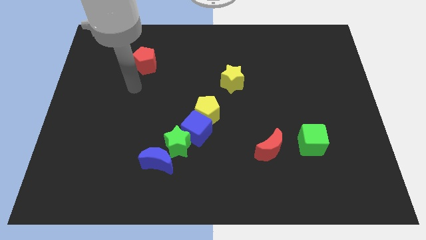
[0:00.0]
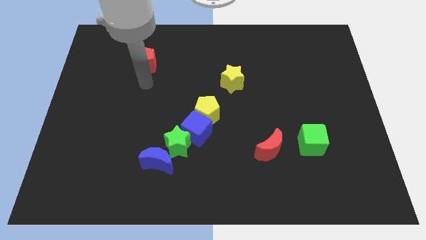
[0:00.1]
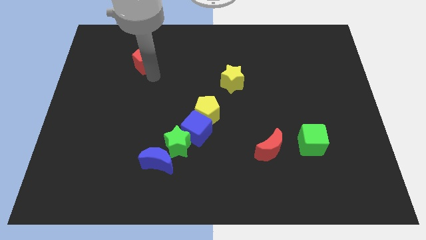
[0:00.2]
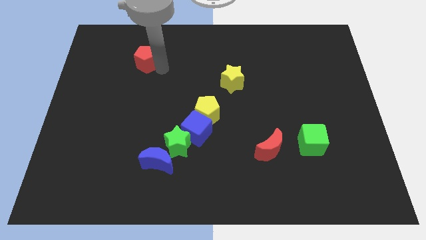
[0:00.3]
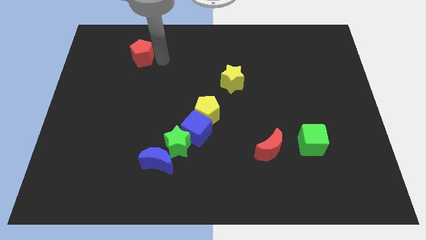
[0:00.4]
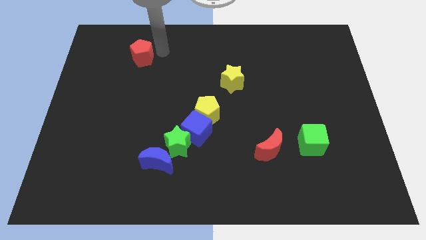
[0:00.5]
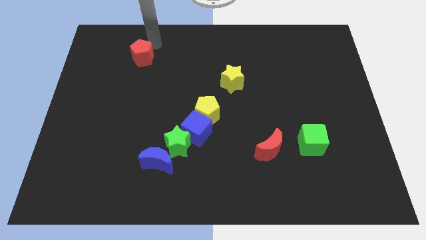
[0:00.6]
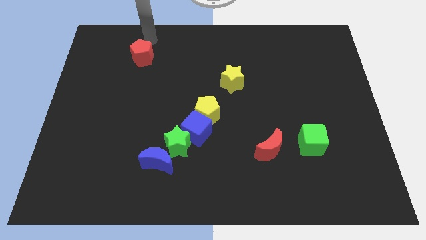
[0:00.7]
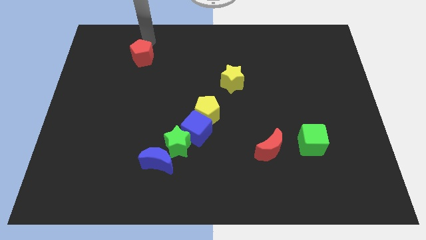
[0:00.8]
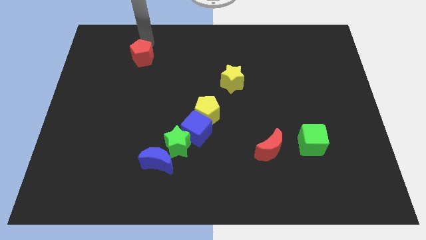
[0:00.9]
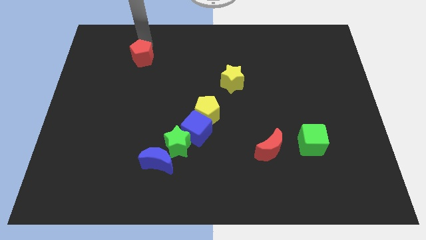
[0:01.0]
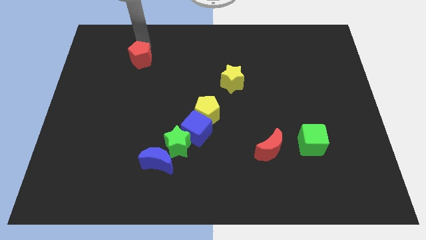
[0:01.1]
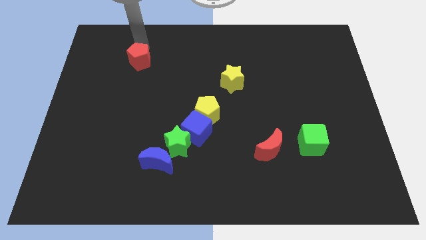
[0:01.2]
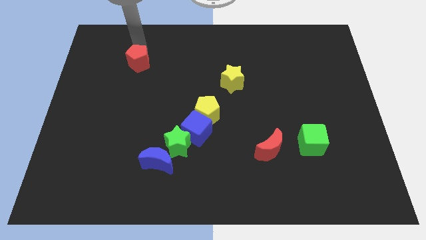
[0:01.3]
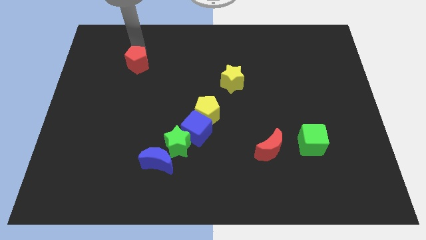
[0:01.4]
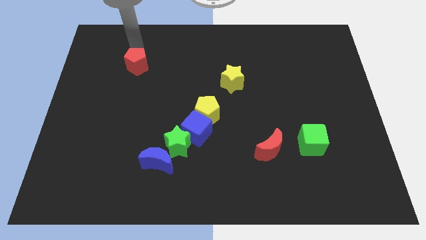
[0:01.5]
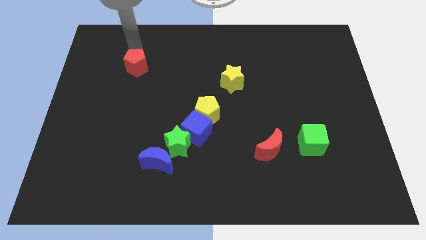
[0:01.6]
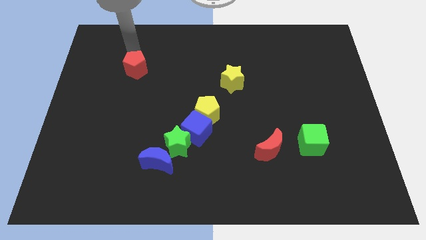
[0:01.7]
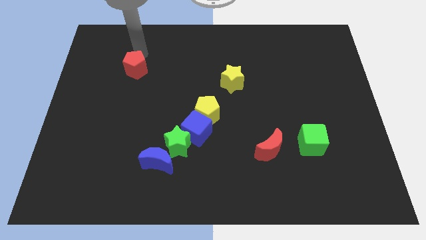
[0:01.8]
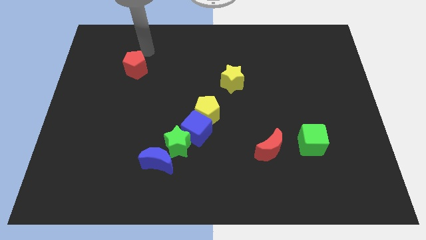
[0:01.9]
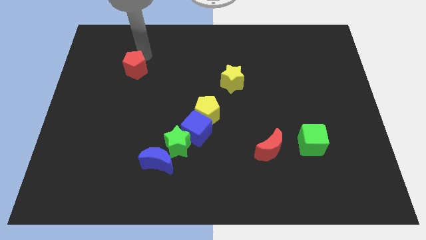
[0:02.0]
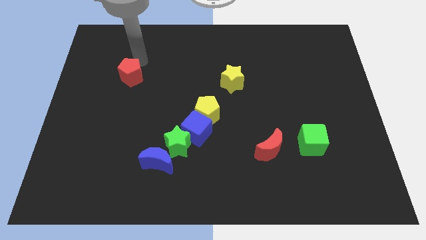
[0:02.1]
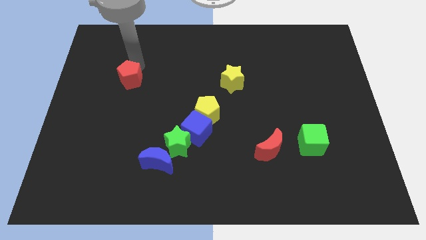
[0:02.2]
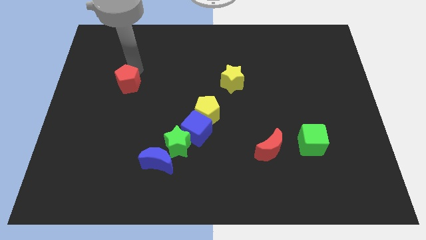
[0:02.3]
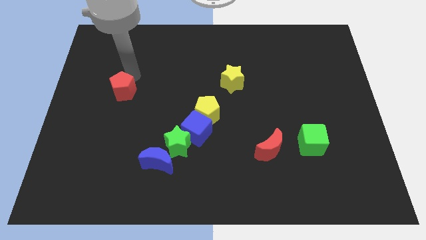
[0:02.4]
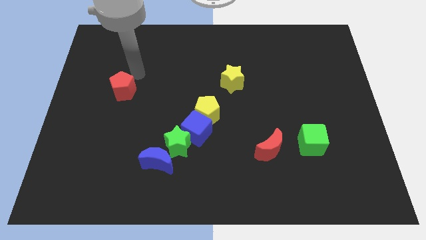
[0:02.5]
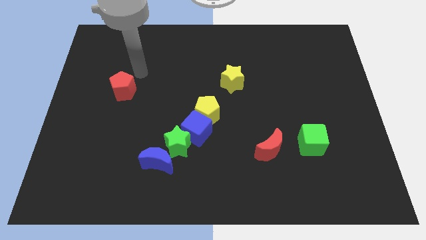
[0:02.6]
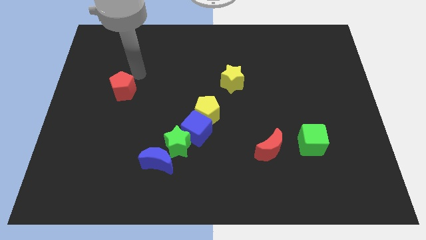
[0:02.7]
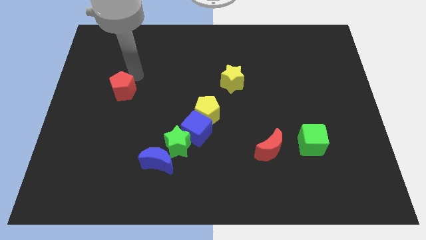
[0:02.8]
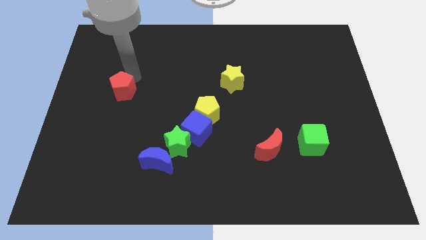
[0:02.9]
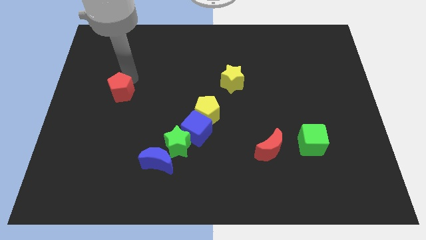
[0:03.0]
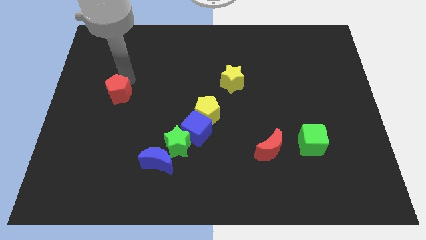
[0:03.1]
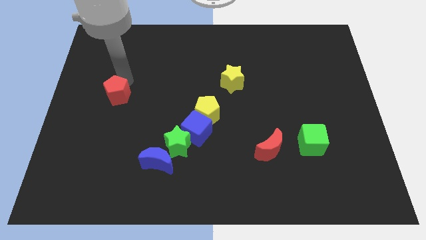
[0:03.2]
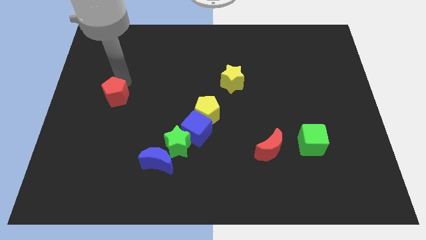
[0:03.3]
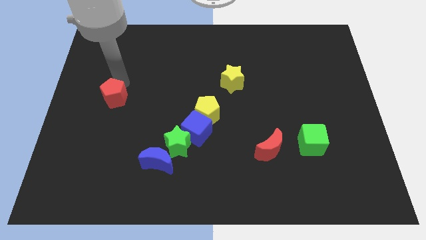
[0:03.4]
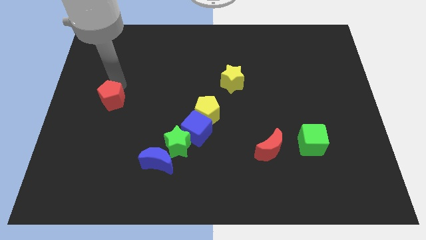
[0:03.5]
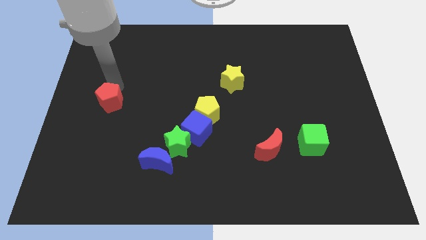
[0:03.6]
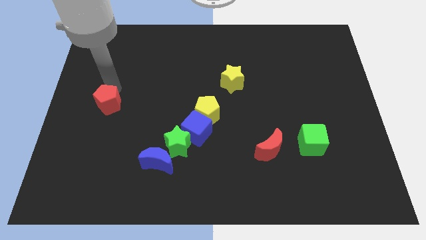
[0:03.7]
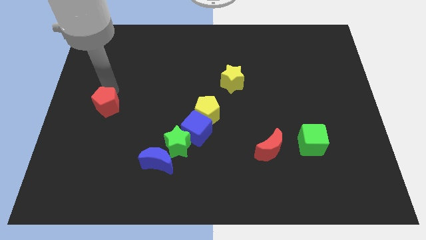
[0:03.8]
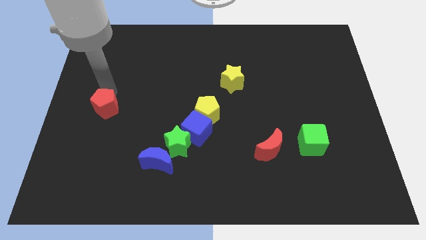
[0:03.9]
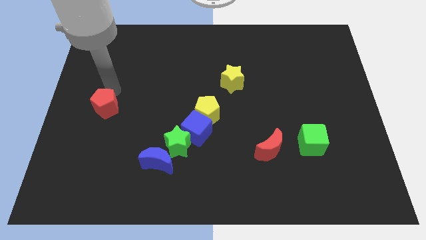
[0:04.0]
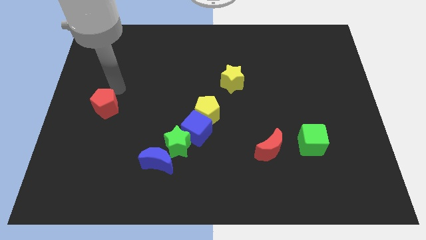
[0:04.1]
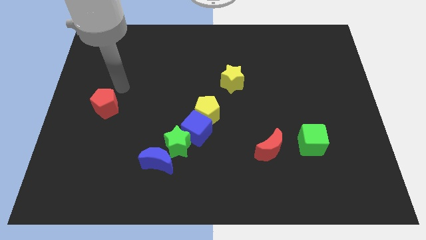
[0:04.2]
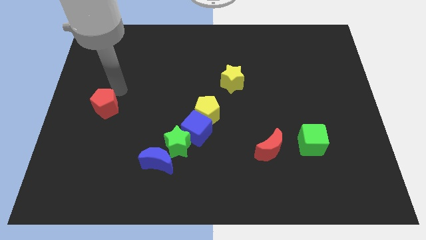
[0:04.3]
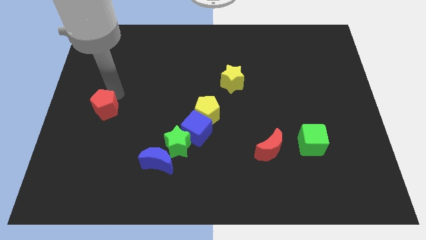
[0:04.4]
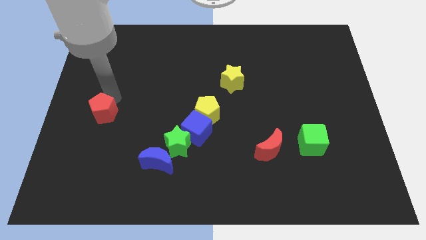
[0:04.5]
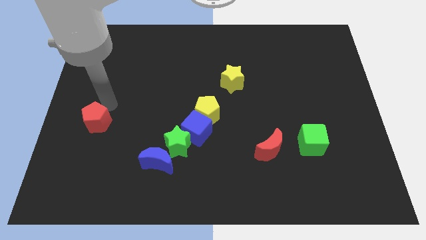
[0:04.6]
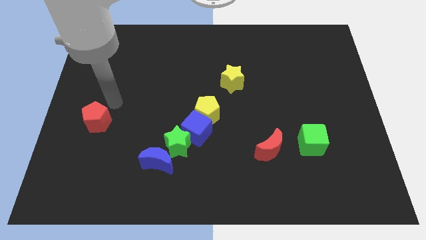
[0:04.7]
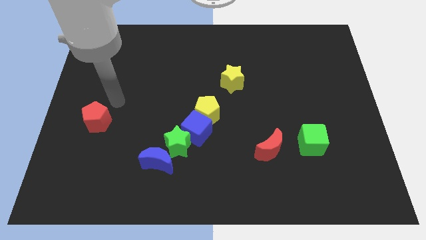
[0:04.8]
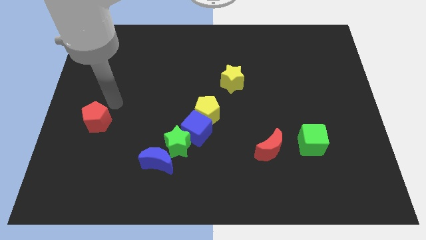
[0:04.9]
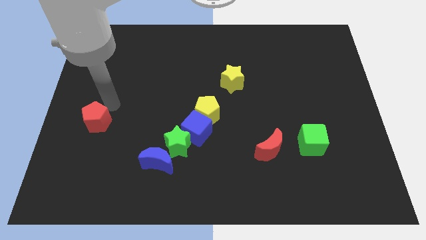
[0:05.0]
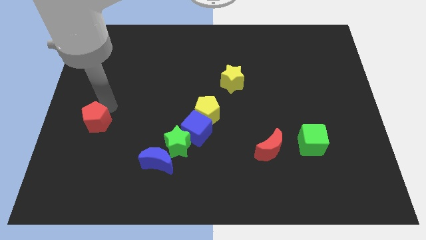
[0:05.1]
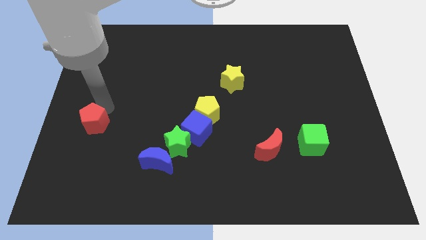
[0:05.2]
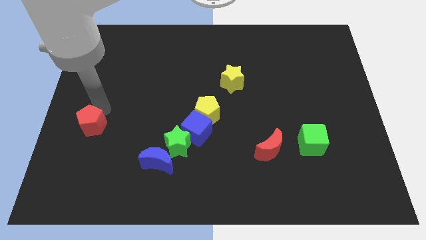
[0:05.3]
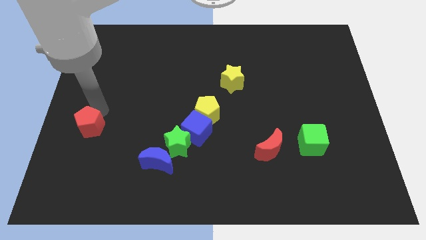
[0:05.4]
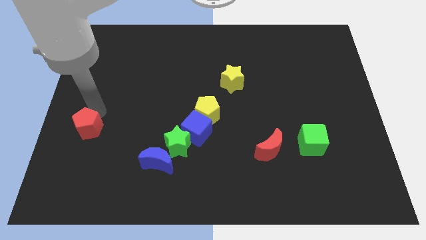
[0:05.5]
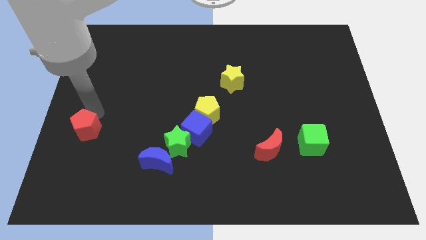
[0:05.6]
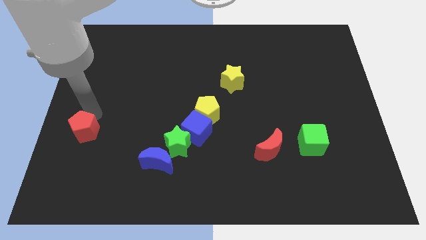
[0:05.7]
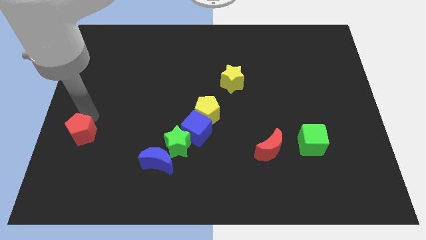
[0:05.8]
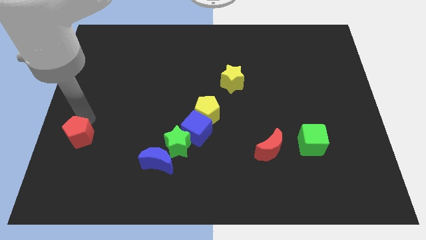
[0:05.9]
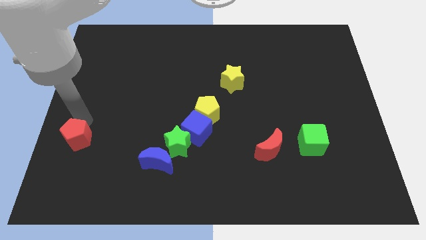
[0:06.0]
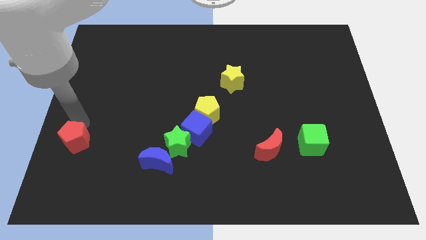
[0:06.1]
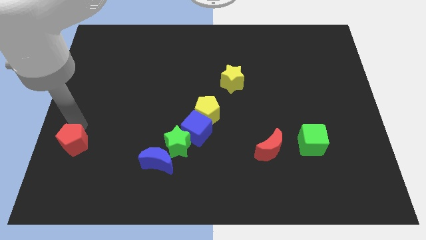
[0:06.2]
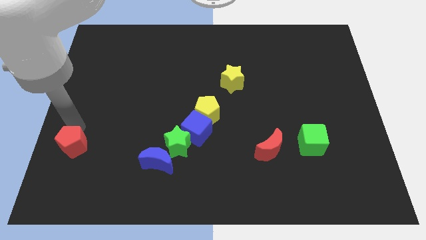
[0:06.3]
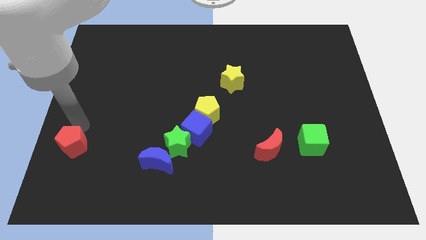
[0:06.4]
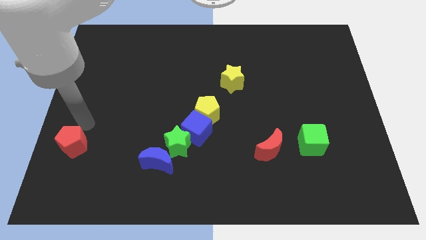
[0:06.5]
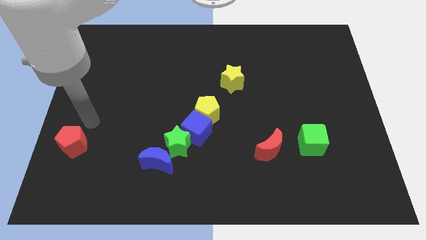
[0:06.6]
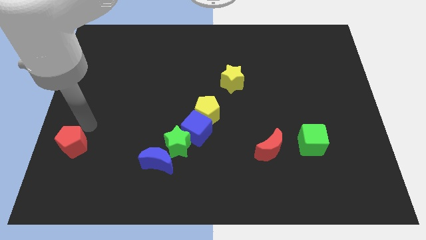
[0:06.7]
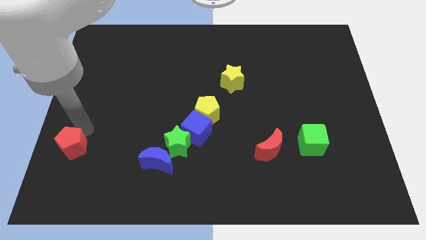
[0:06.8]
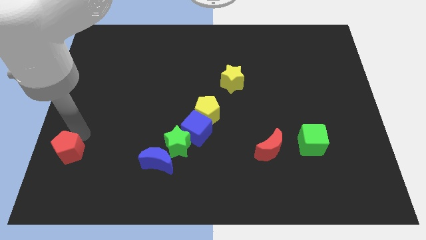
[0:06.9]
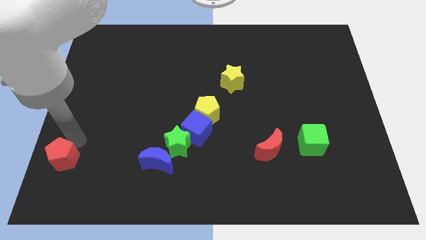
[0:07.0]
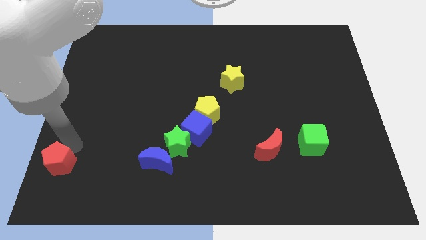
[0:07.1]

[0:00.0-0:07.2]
slide the red pentagon to the bottom left
